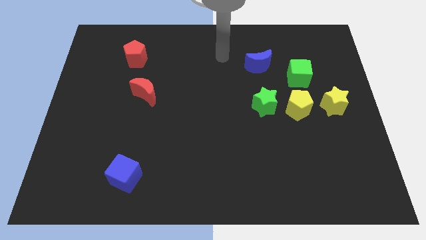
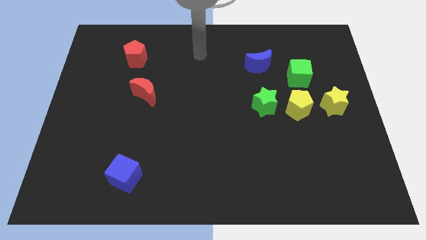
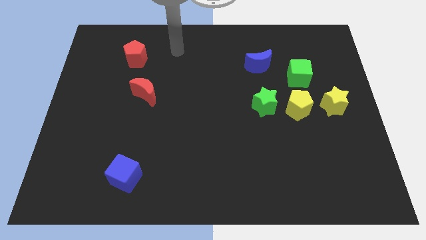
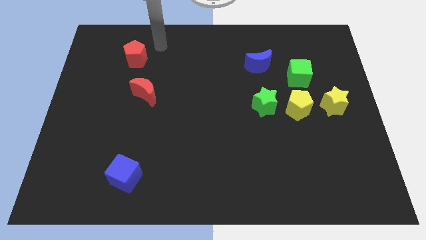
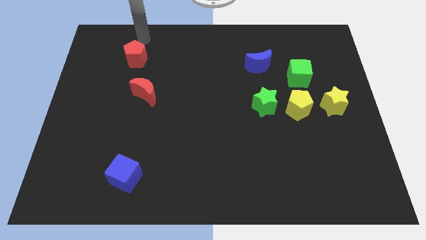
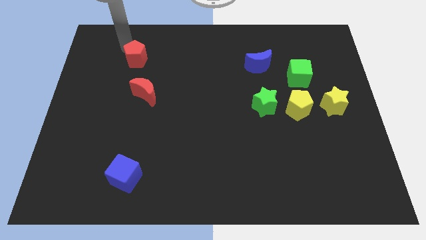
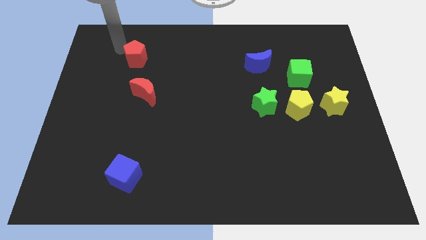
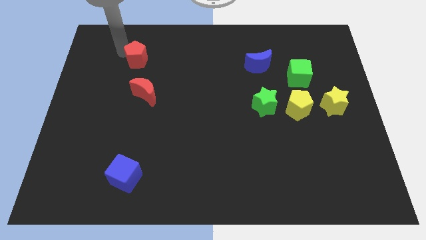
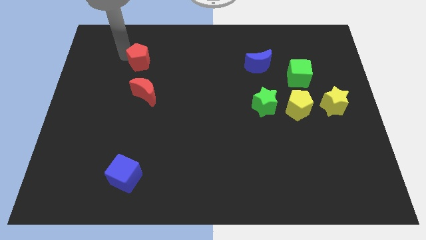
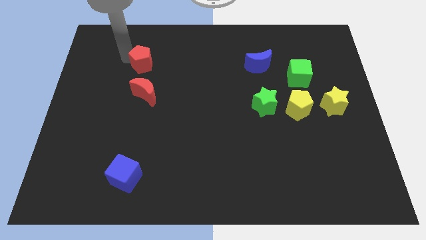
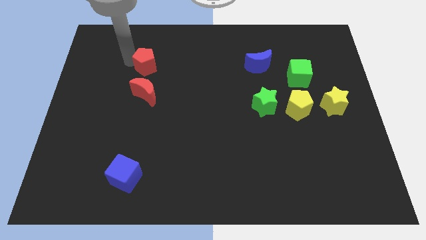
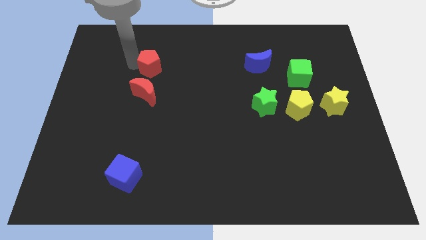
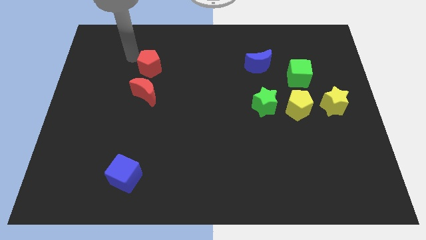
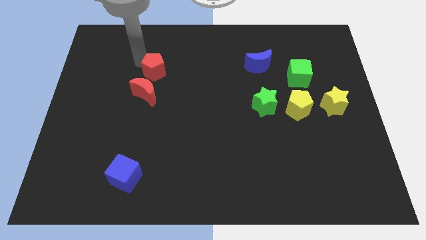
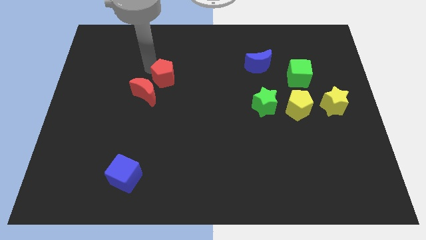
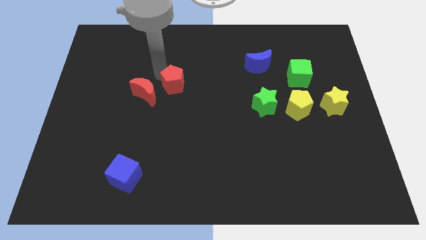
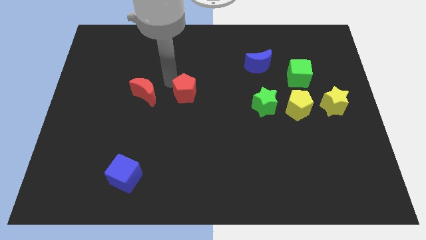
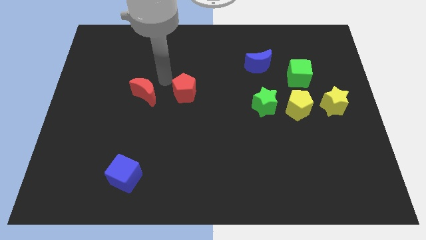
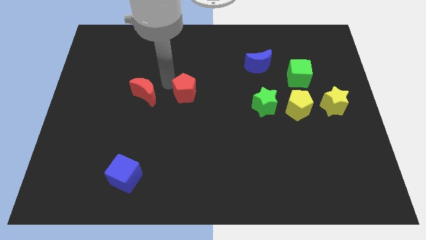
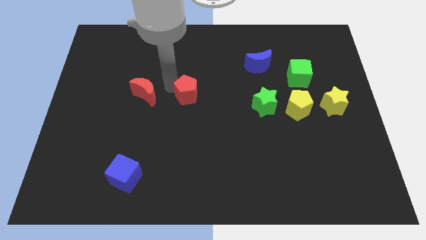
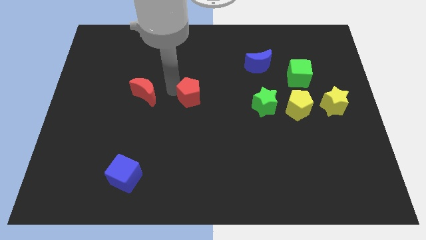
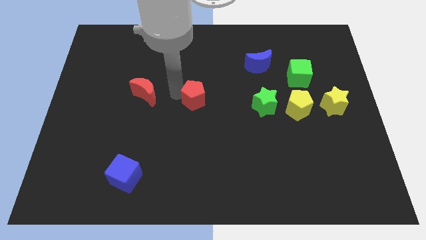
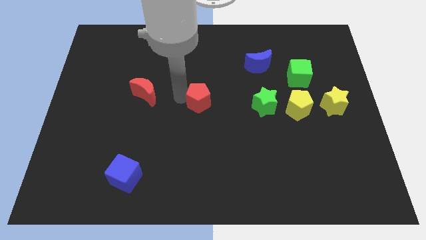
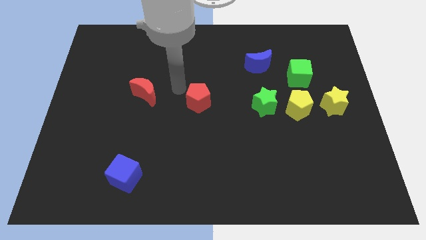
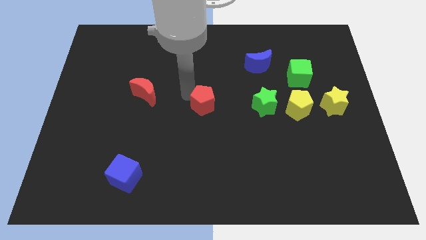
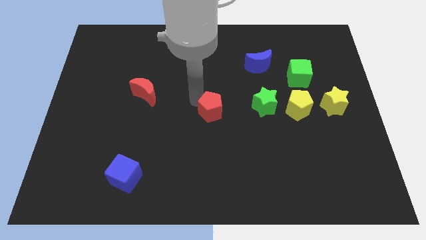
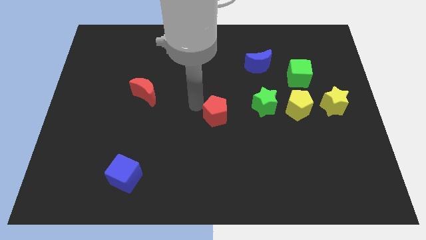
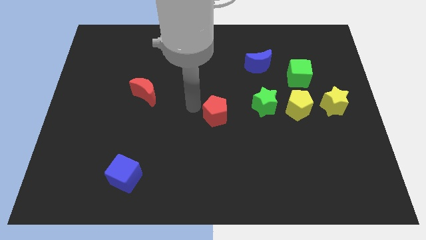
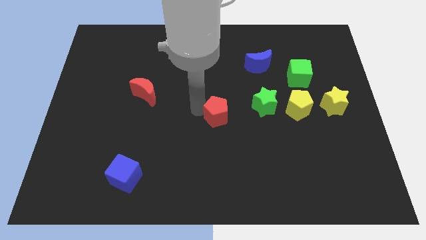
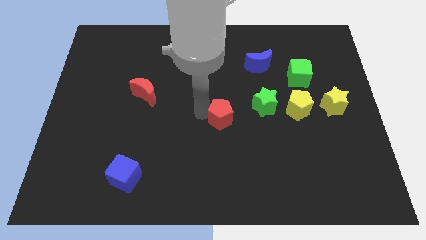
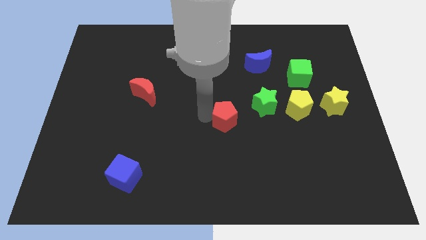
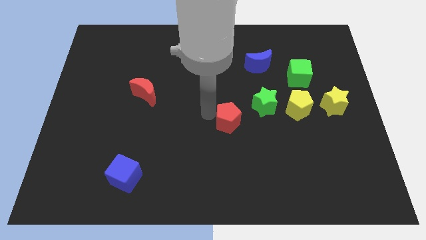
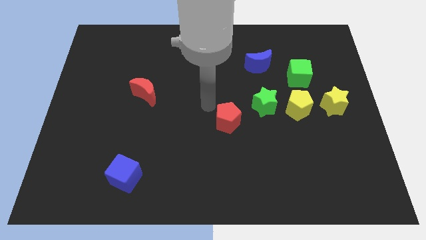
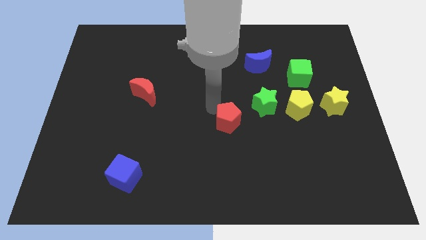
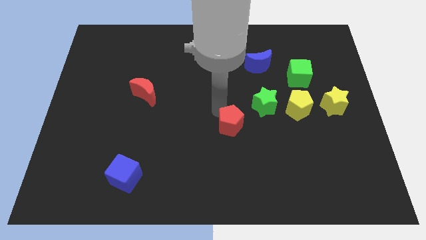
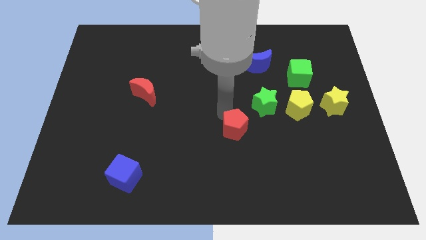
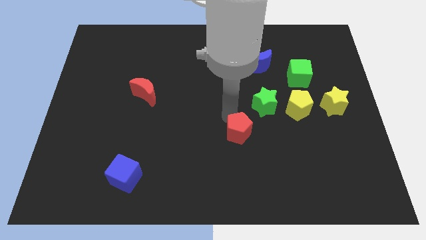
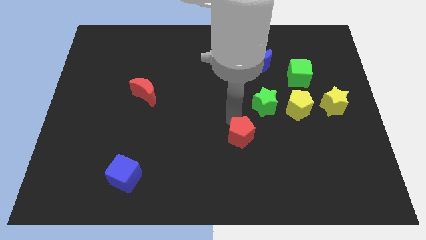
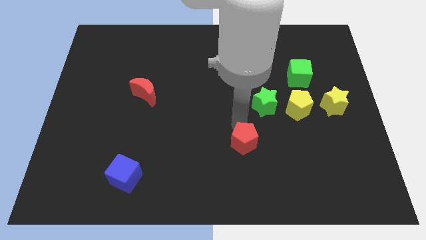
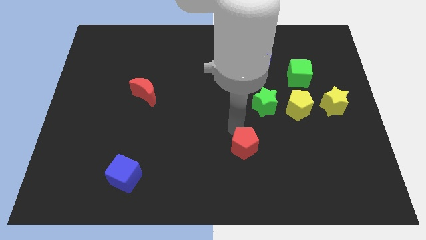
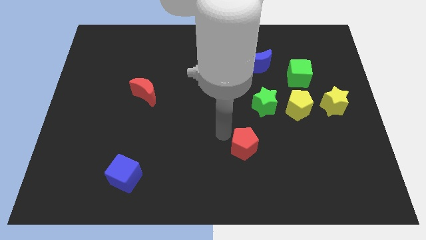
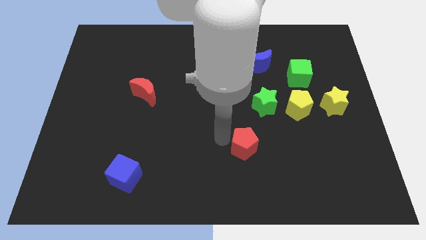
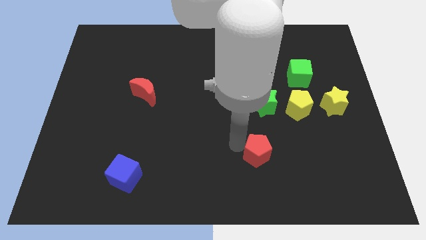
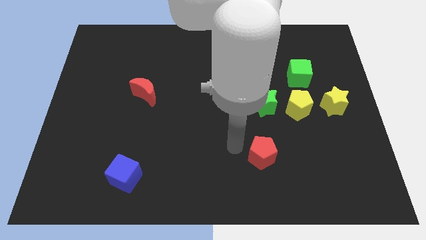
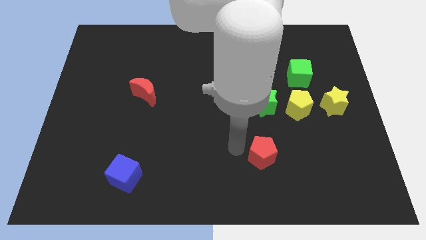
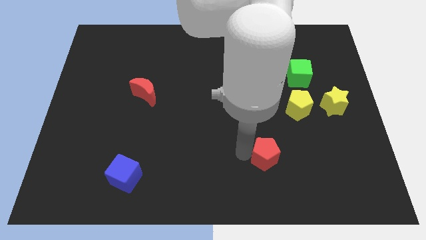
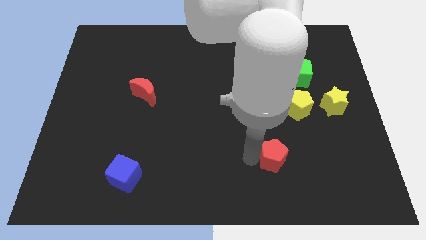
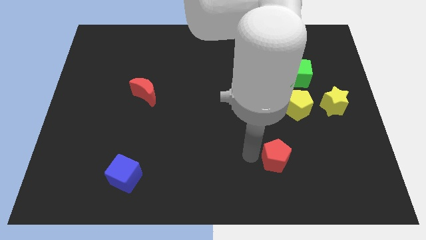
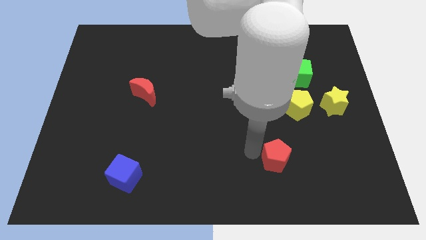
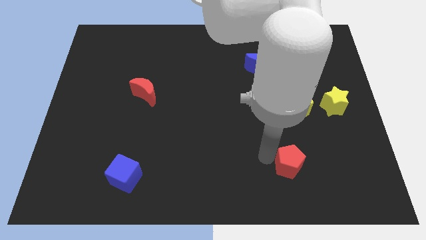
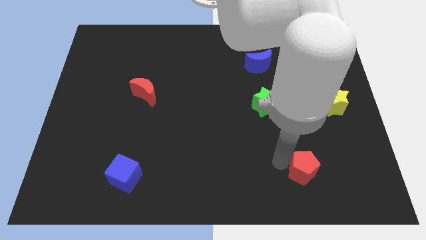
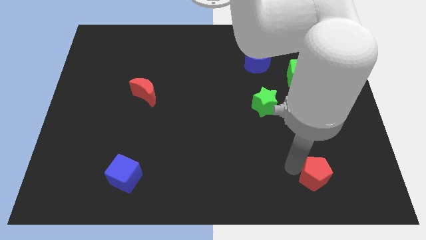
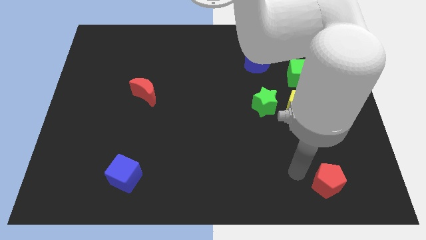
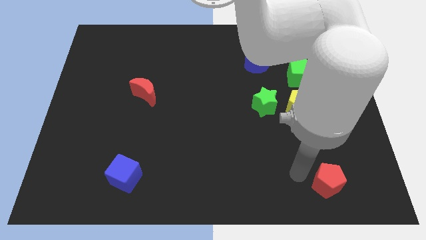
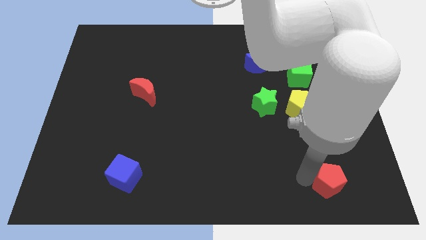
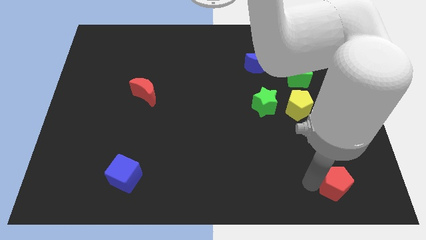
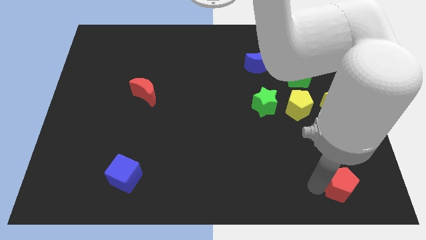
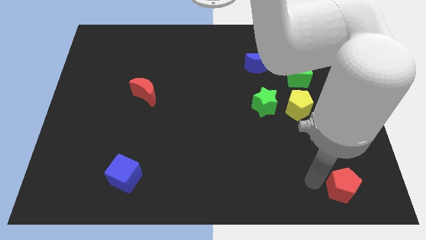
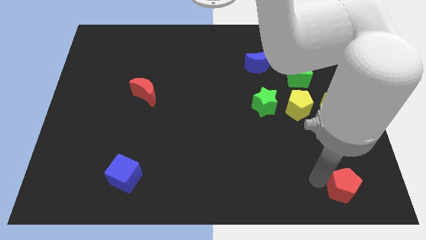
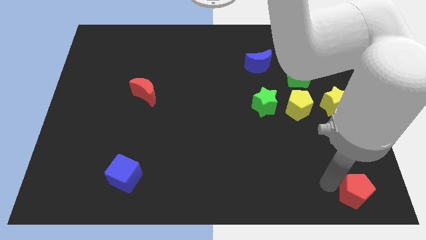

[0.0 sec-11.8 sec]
put the red pentagon to the bottom right corner

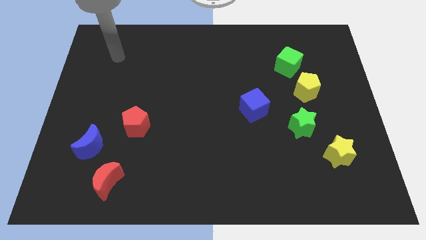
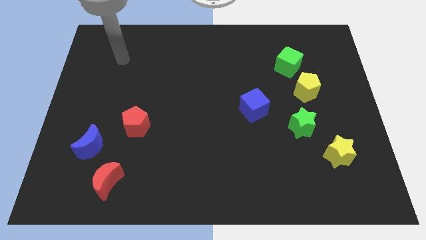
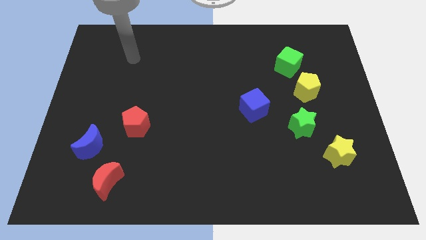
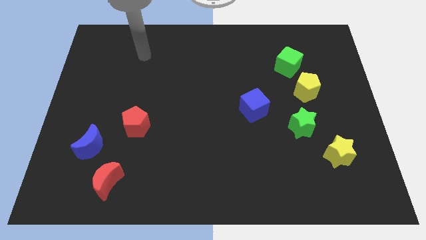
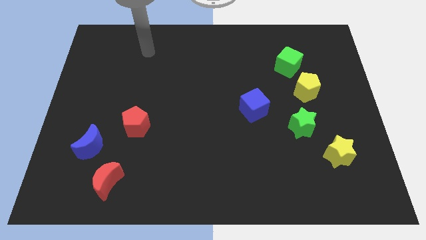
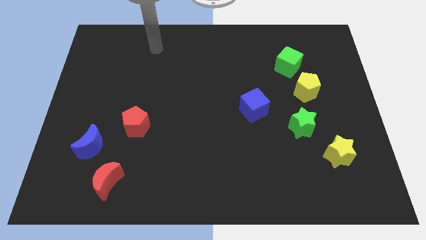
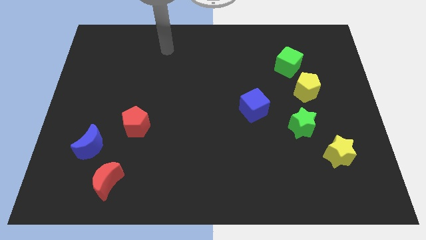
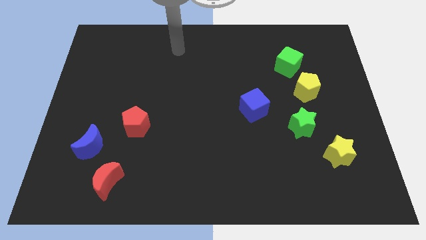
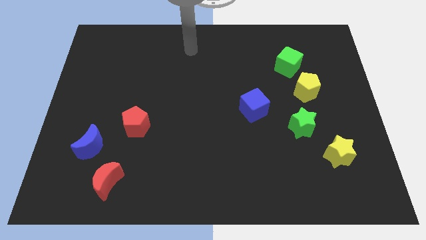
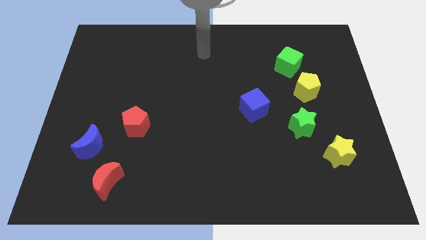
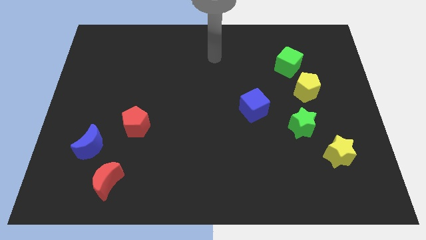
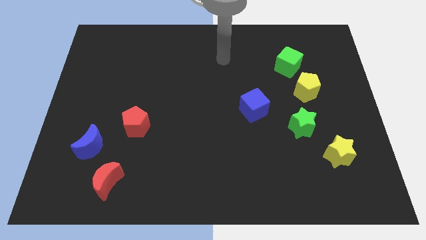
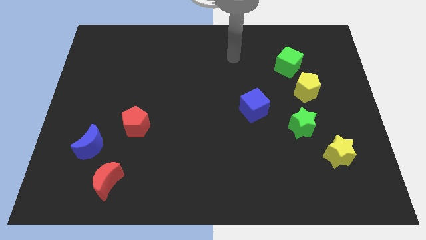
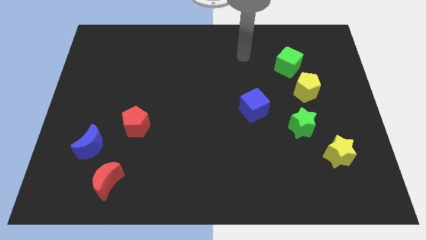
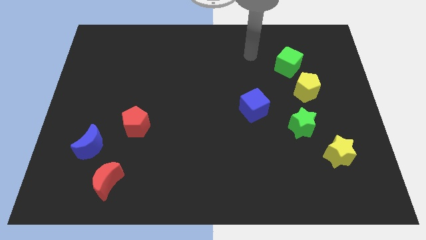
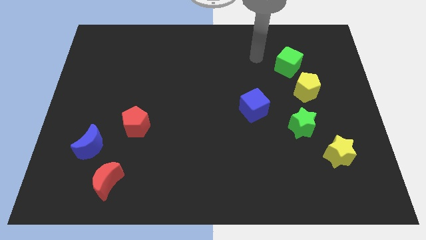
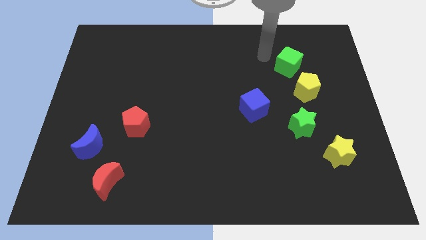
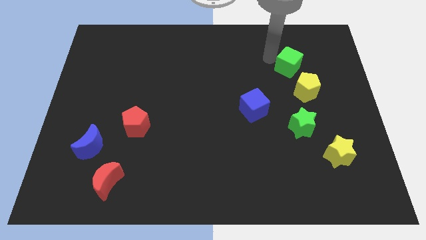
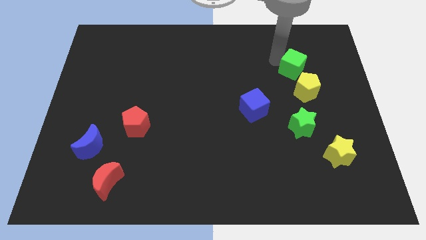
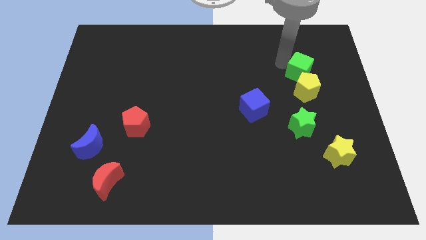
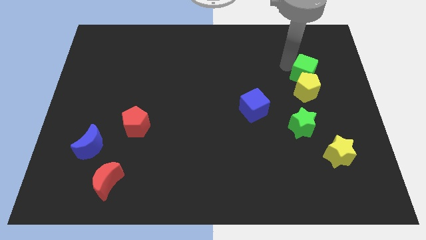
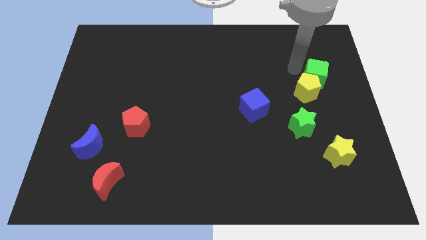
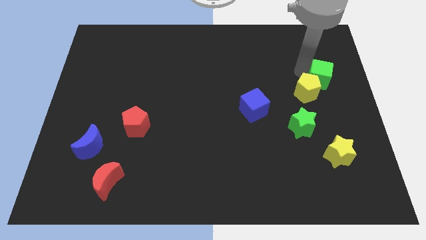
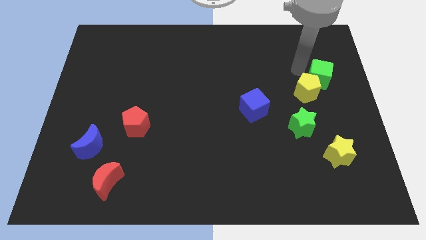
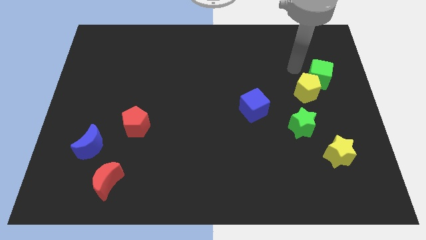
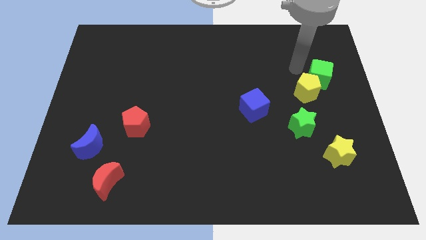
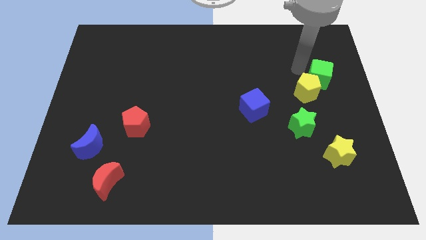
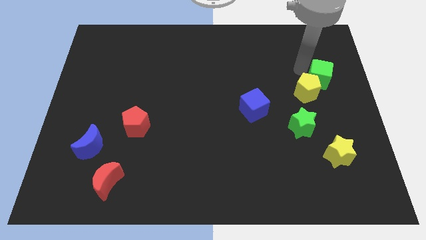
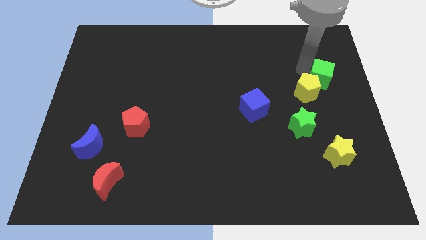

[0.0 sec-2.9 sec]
move the green cube to the center right
